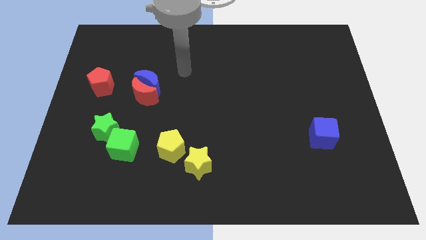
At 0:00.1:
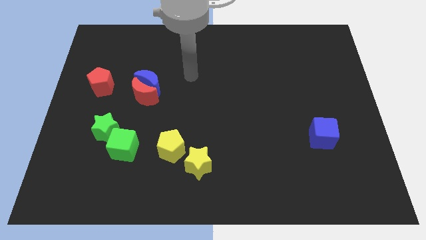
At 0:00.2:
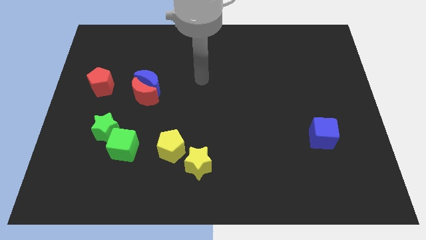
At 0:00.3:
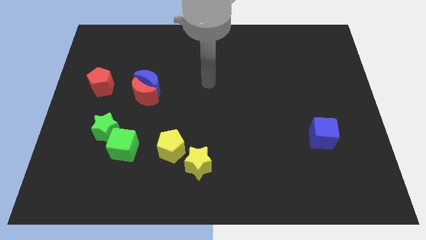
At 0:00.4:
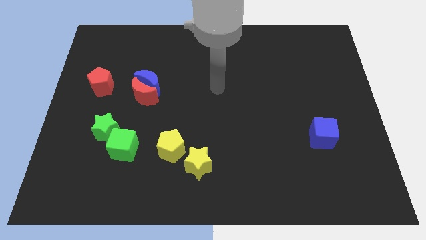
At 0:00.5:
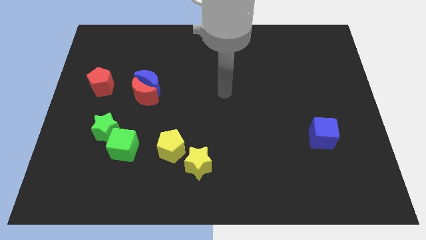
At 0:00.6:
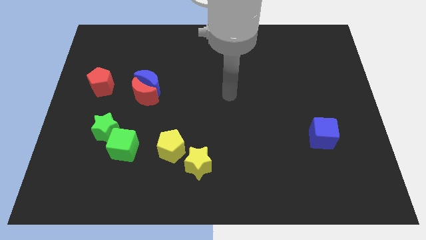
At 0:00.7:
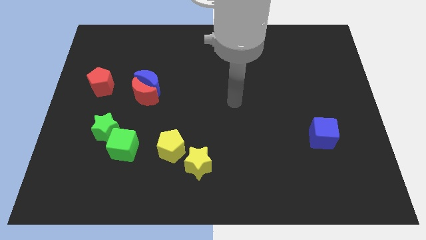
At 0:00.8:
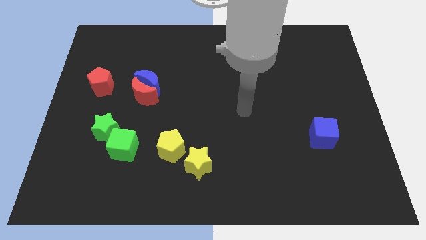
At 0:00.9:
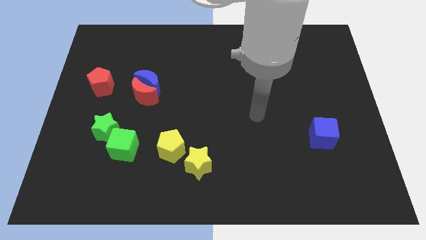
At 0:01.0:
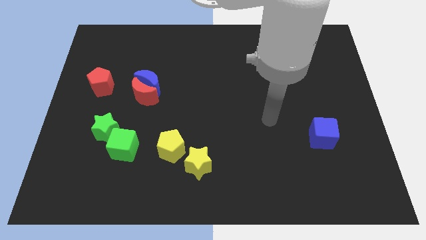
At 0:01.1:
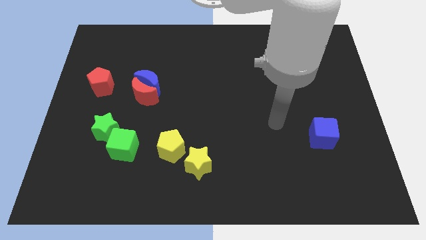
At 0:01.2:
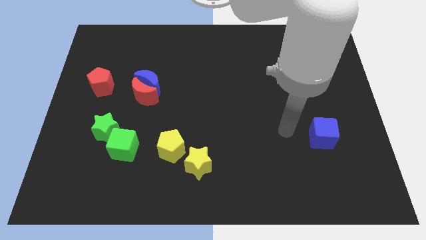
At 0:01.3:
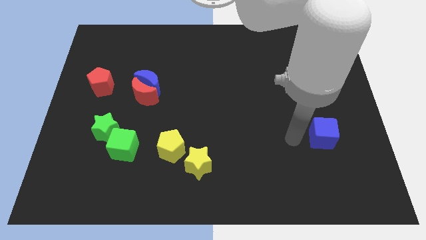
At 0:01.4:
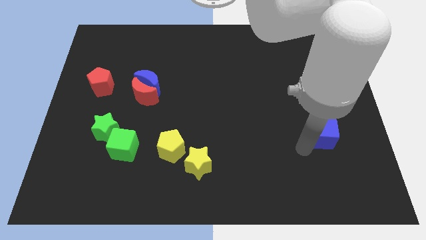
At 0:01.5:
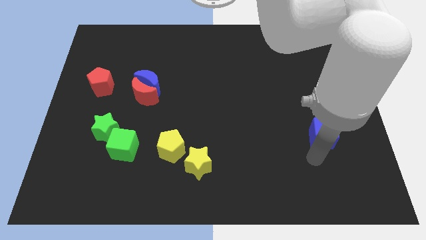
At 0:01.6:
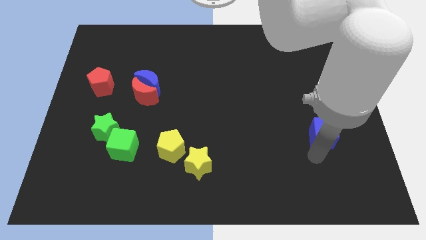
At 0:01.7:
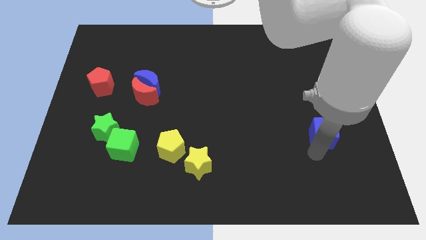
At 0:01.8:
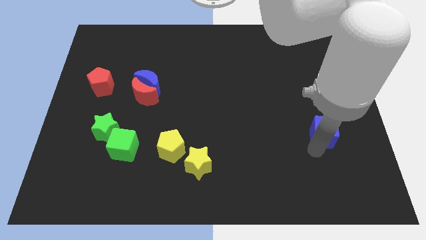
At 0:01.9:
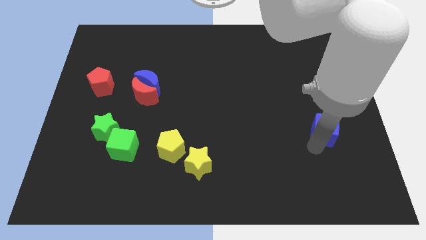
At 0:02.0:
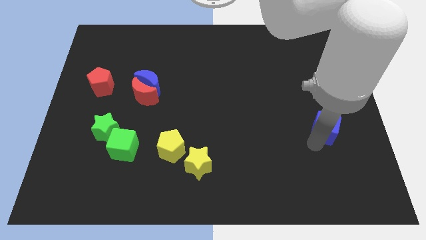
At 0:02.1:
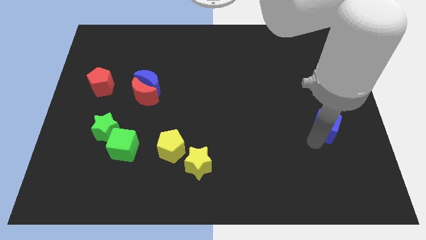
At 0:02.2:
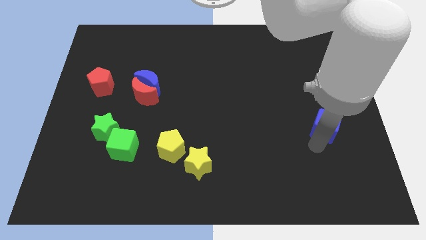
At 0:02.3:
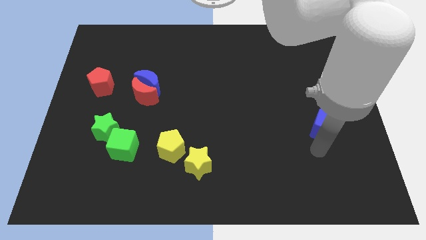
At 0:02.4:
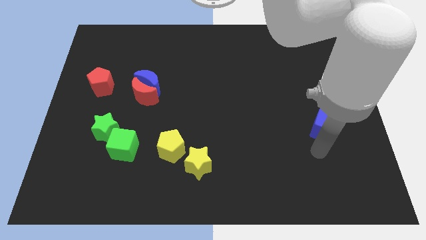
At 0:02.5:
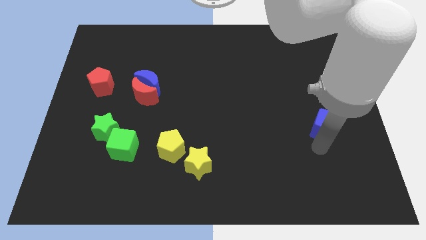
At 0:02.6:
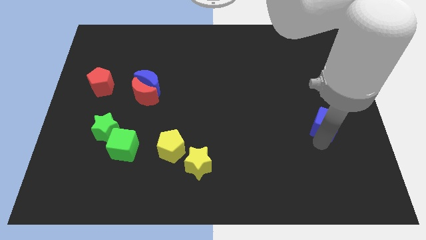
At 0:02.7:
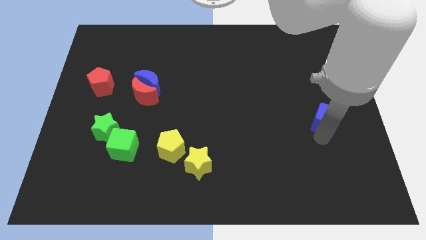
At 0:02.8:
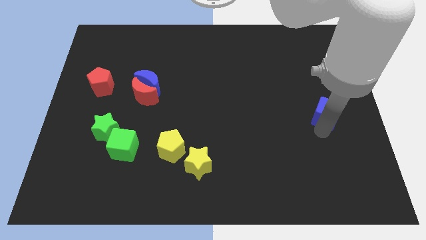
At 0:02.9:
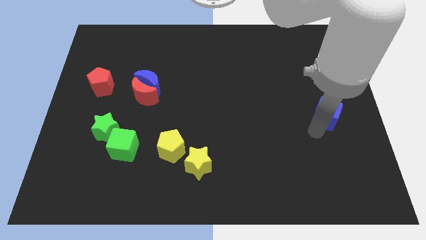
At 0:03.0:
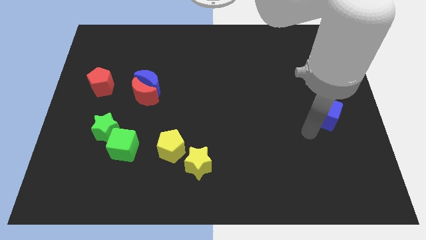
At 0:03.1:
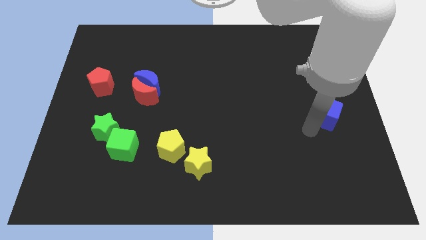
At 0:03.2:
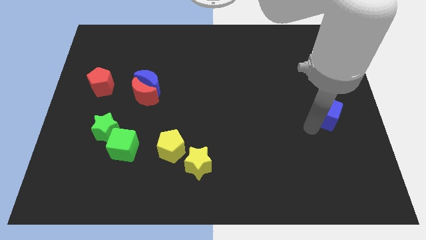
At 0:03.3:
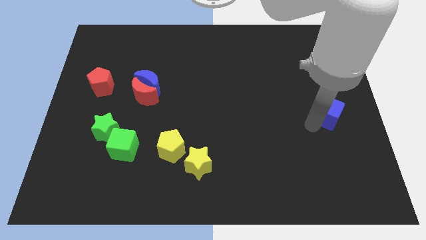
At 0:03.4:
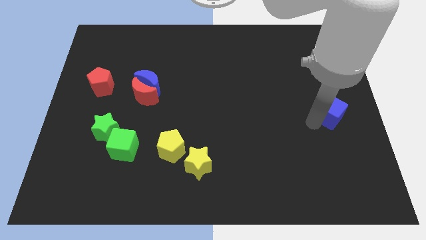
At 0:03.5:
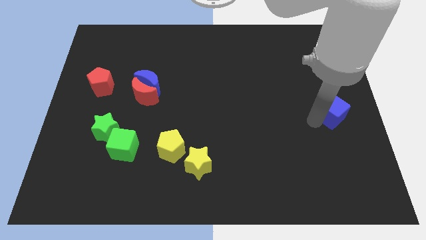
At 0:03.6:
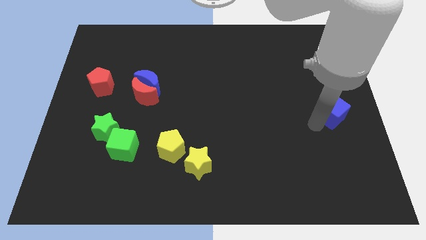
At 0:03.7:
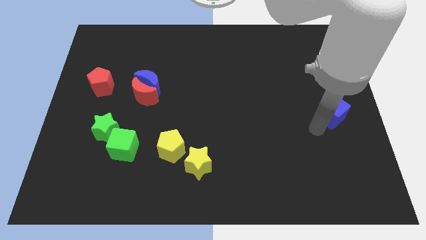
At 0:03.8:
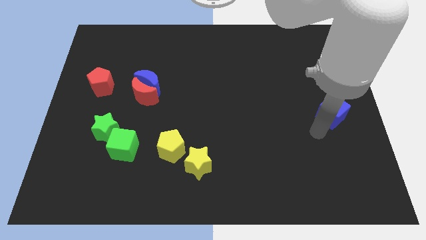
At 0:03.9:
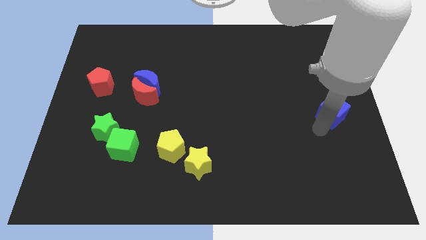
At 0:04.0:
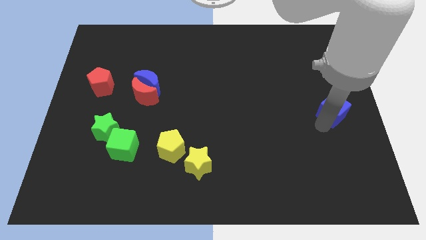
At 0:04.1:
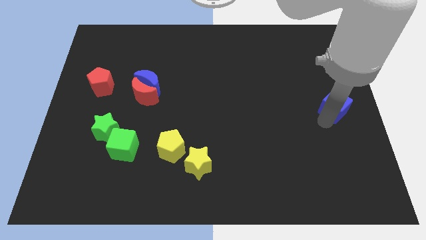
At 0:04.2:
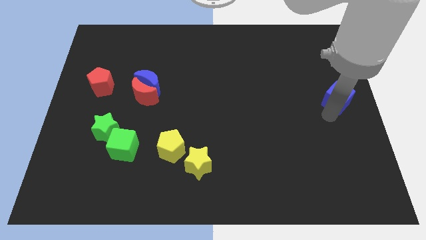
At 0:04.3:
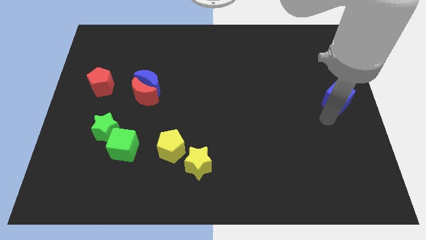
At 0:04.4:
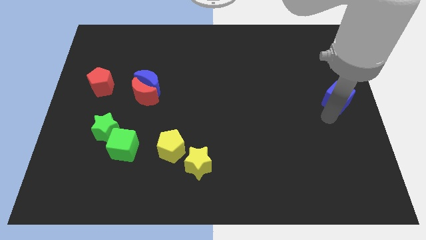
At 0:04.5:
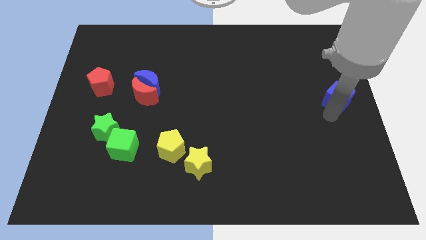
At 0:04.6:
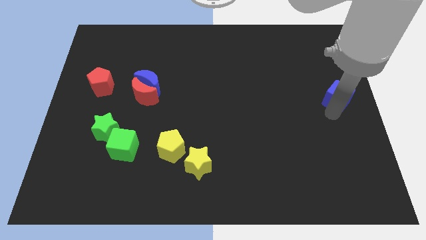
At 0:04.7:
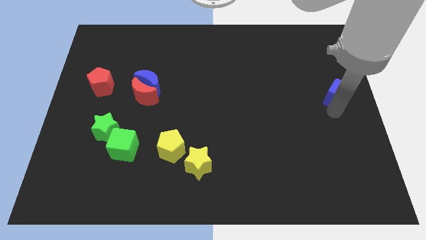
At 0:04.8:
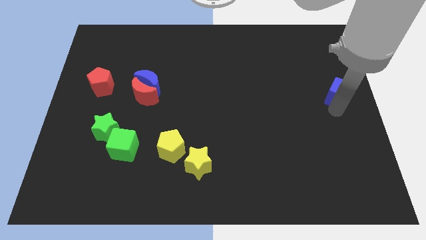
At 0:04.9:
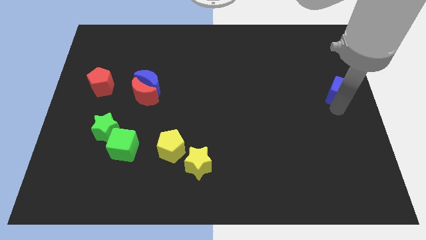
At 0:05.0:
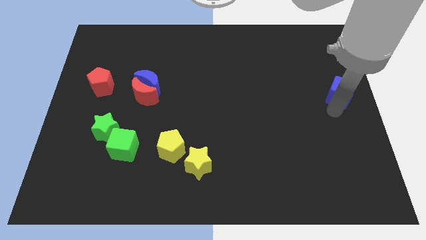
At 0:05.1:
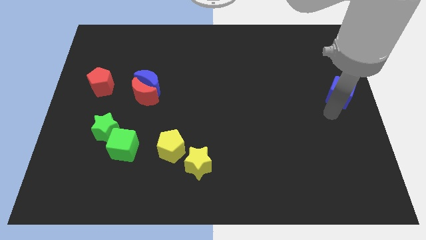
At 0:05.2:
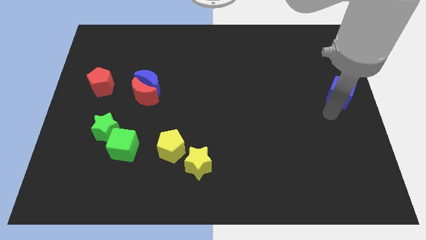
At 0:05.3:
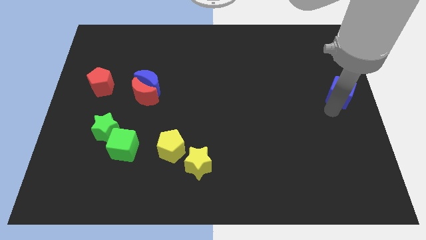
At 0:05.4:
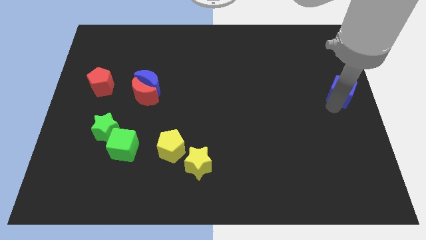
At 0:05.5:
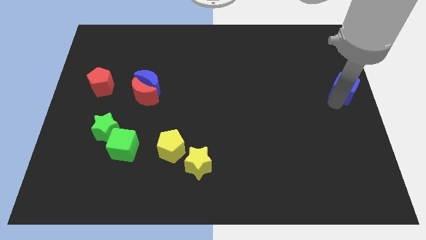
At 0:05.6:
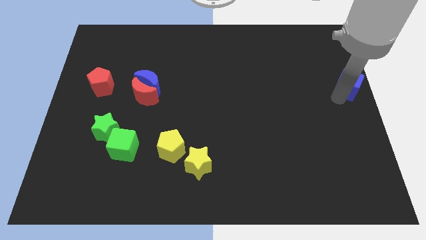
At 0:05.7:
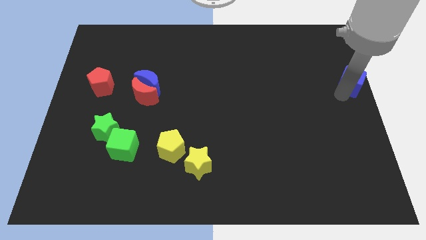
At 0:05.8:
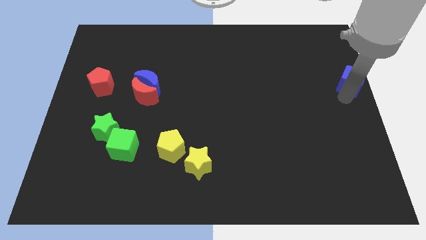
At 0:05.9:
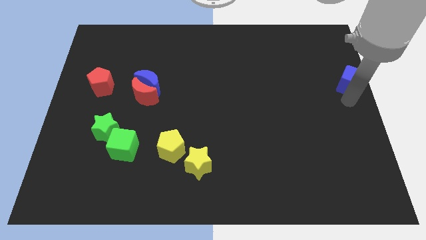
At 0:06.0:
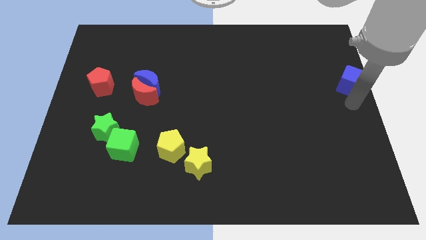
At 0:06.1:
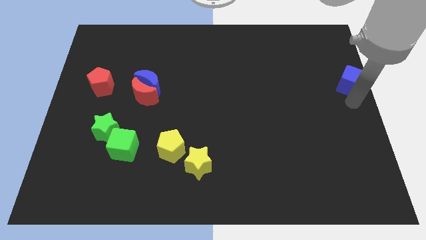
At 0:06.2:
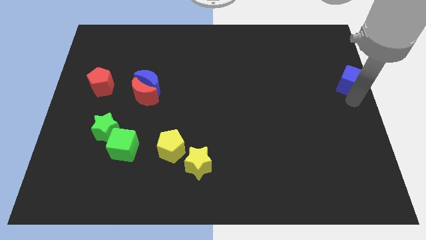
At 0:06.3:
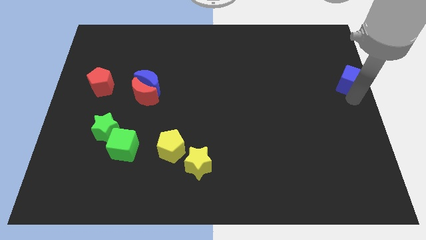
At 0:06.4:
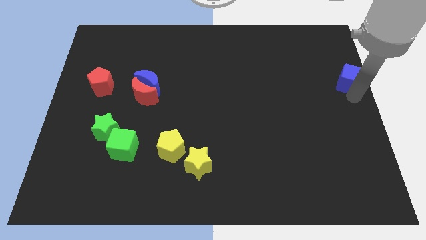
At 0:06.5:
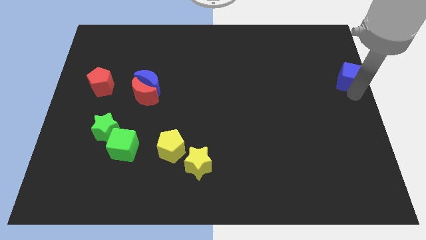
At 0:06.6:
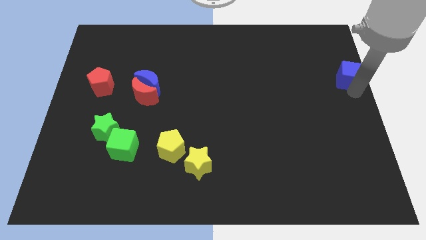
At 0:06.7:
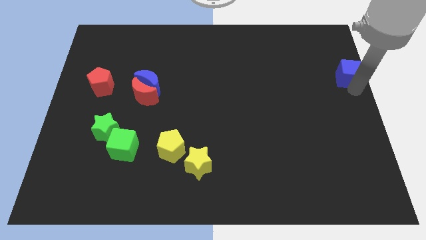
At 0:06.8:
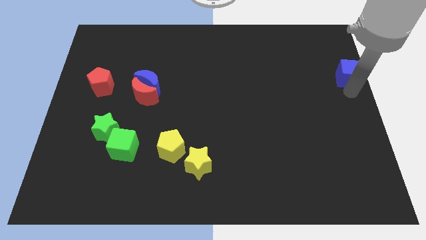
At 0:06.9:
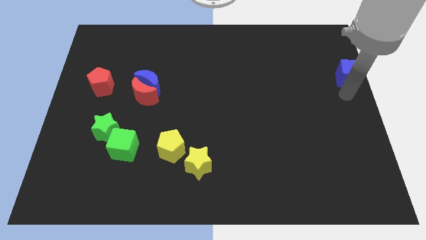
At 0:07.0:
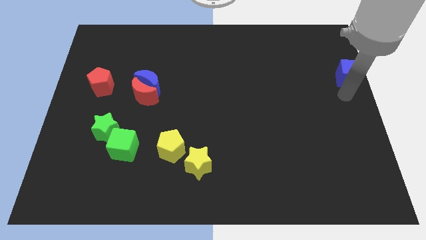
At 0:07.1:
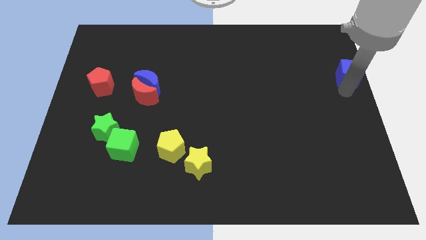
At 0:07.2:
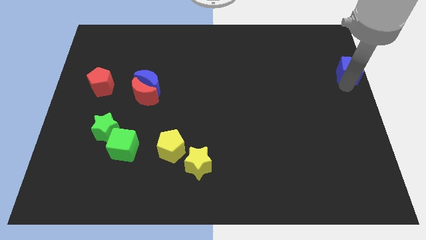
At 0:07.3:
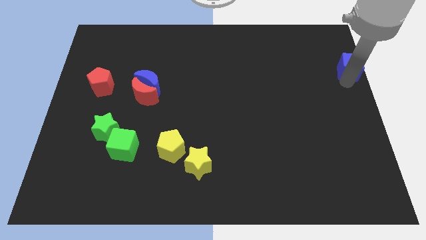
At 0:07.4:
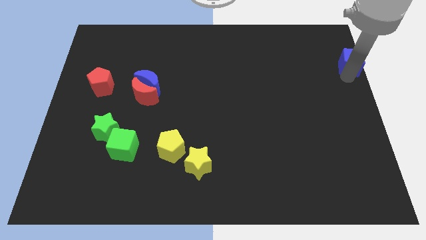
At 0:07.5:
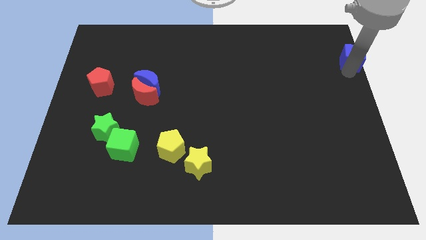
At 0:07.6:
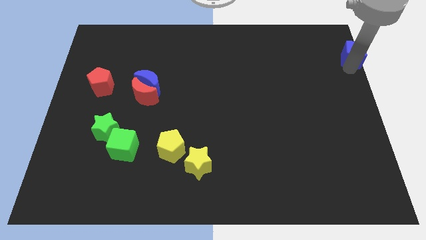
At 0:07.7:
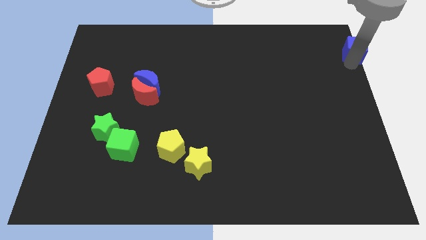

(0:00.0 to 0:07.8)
put the blue cube to the top right corner
